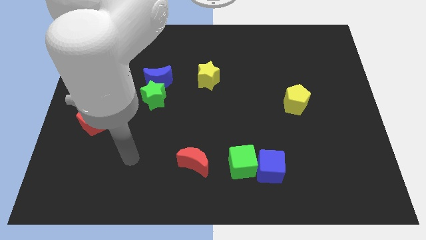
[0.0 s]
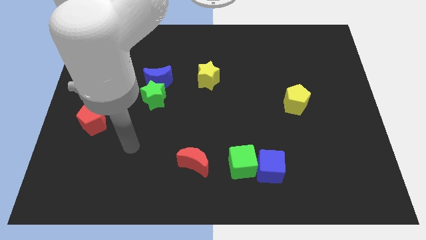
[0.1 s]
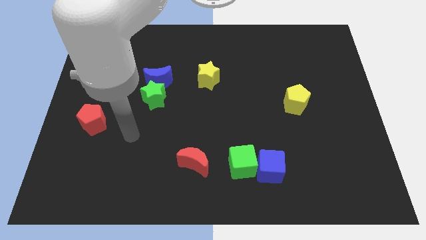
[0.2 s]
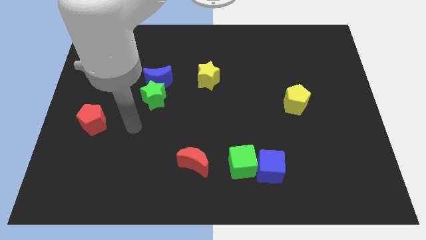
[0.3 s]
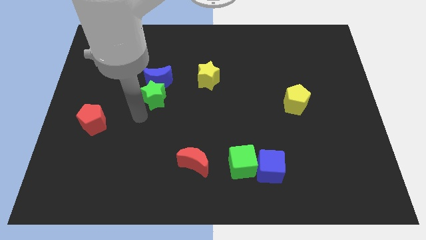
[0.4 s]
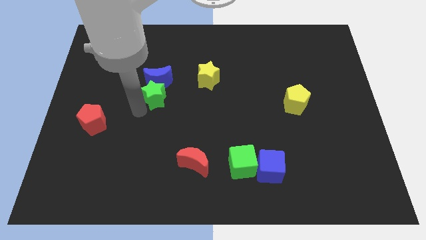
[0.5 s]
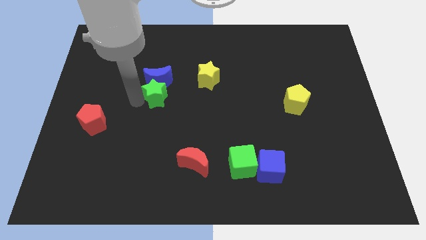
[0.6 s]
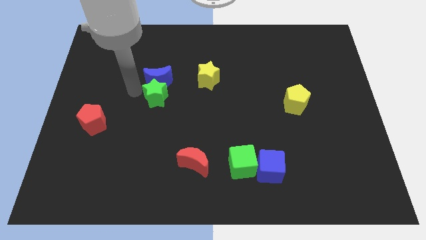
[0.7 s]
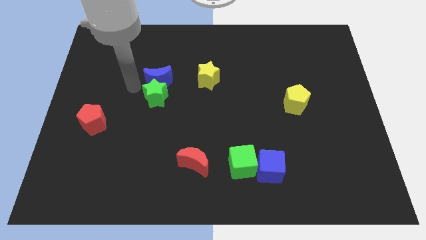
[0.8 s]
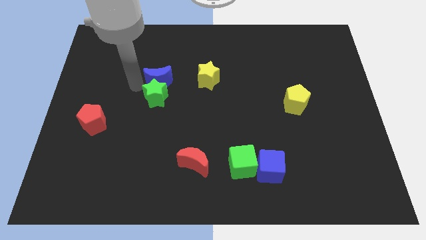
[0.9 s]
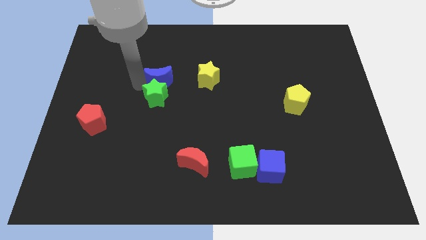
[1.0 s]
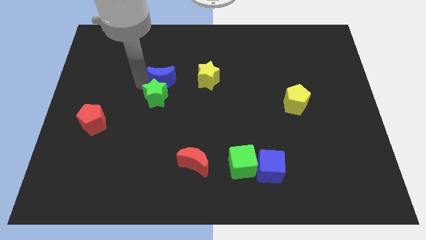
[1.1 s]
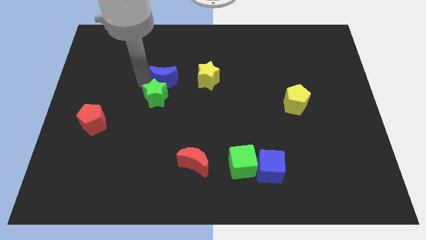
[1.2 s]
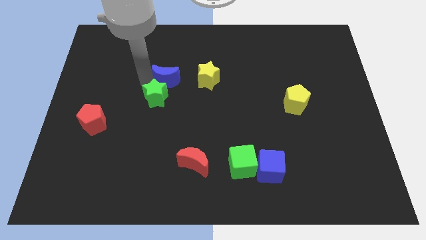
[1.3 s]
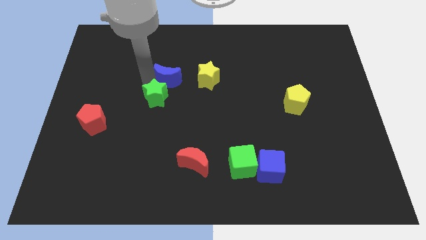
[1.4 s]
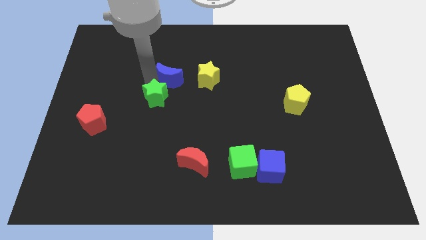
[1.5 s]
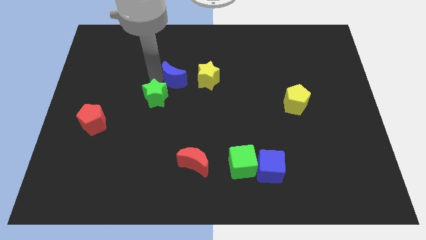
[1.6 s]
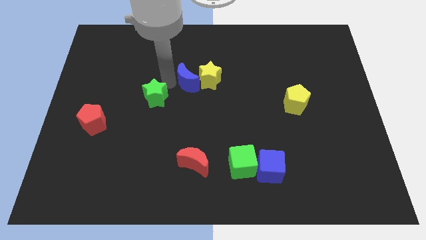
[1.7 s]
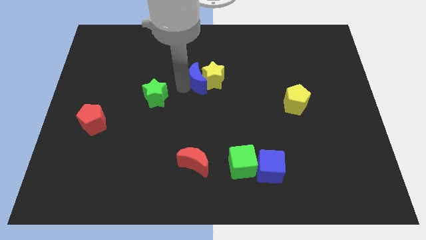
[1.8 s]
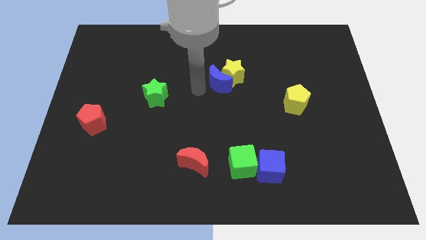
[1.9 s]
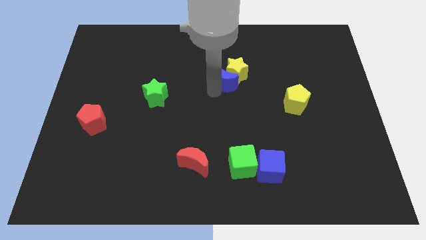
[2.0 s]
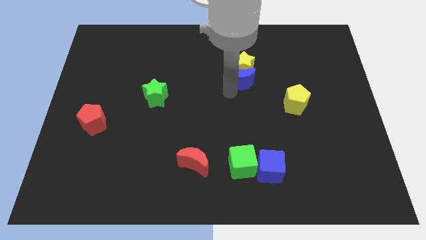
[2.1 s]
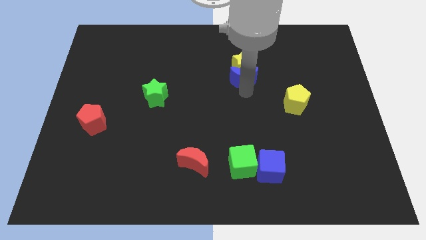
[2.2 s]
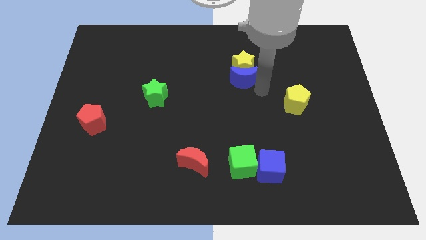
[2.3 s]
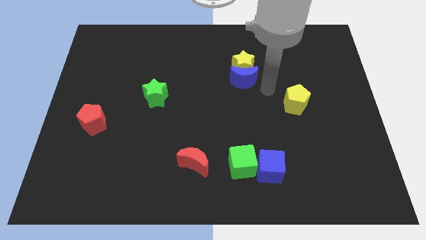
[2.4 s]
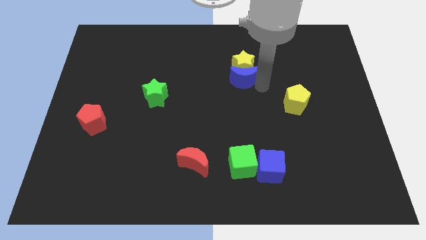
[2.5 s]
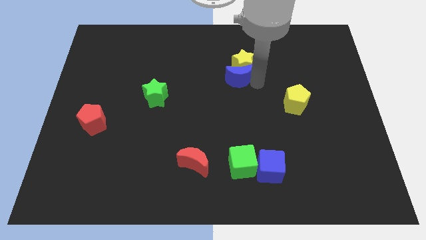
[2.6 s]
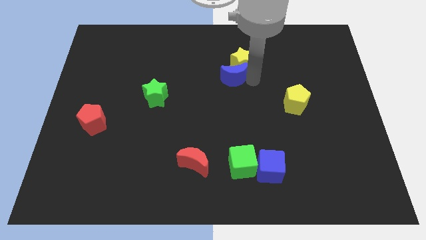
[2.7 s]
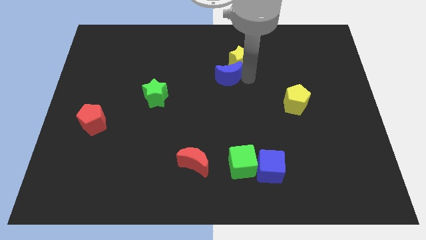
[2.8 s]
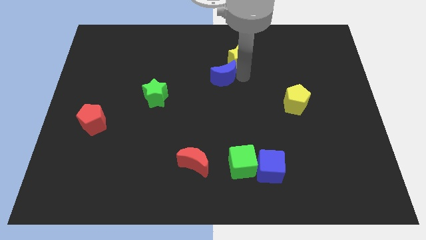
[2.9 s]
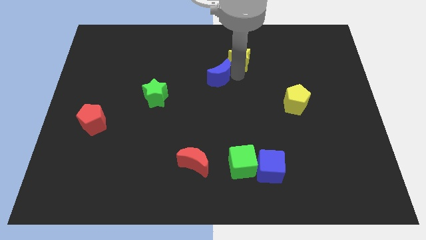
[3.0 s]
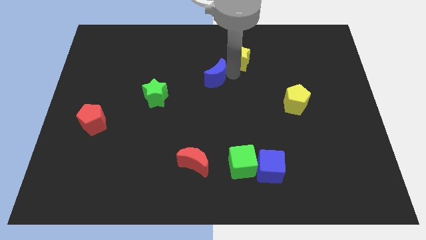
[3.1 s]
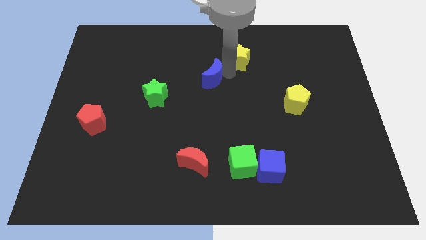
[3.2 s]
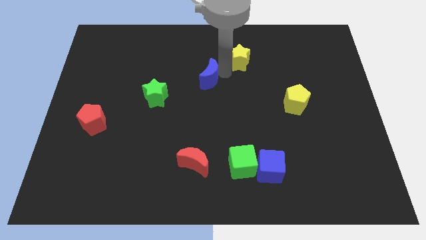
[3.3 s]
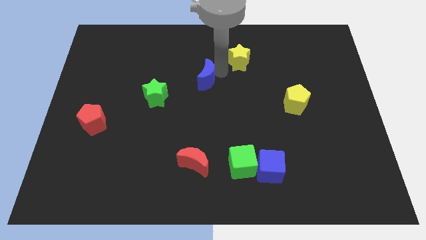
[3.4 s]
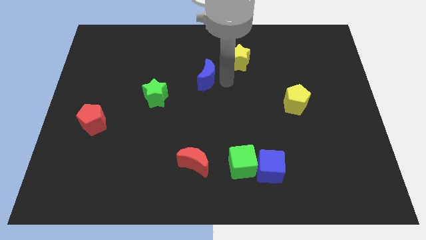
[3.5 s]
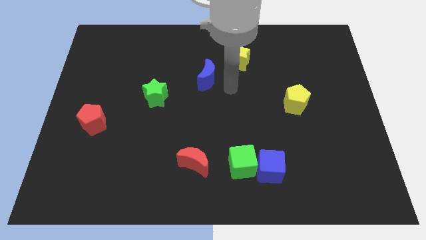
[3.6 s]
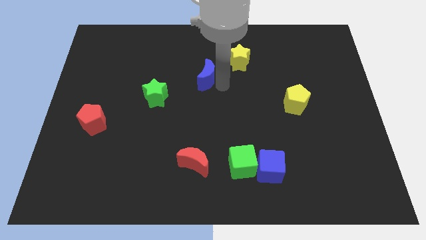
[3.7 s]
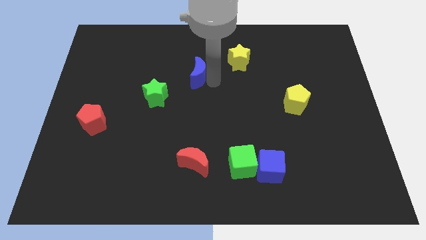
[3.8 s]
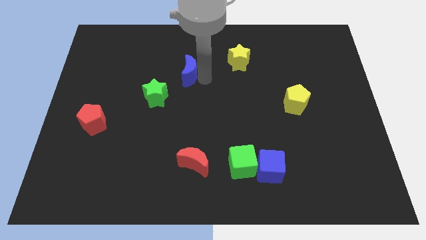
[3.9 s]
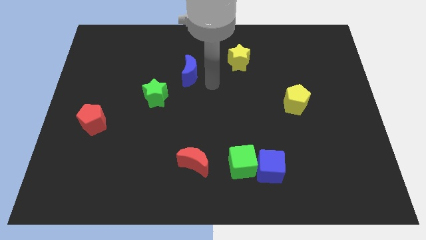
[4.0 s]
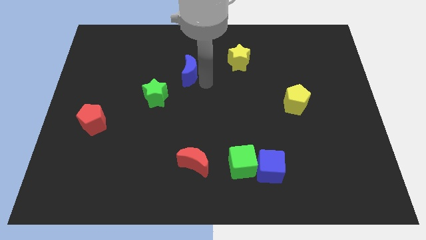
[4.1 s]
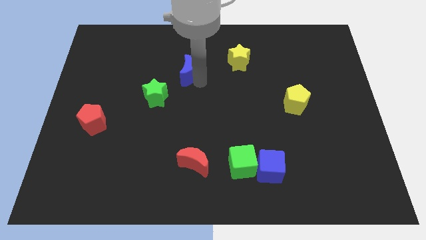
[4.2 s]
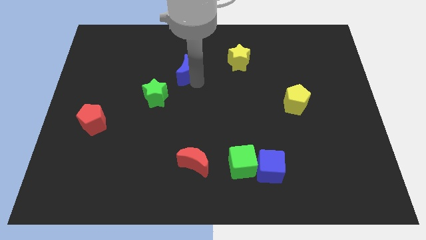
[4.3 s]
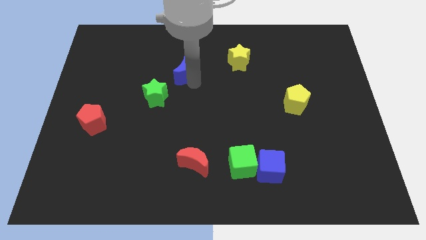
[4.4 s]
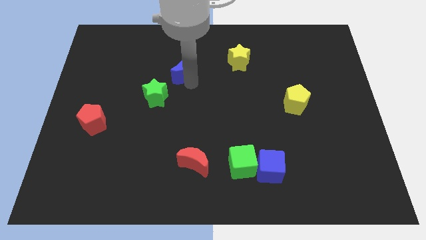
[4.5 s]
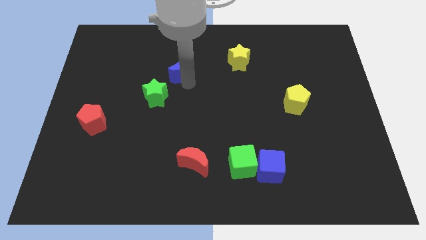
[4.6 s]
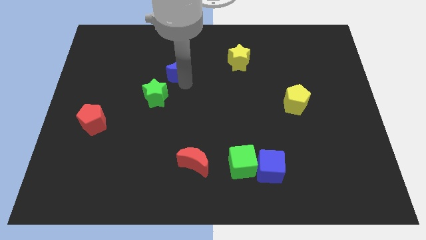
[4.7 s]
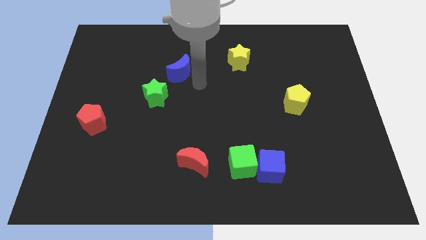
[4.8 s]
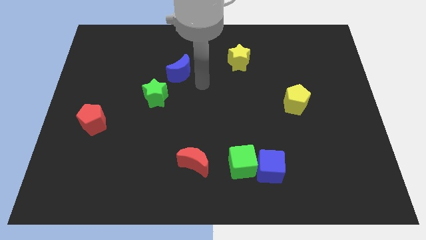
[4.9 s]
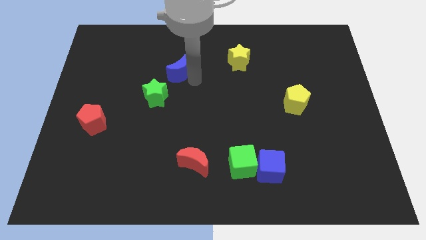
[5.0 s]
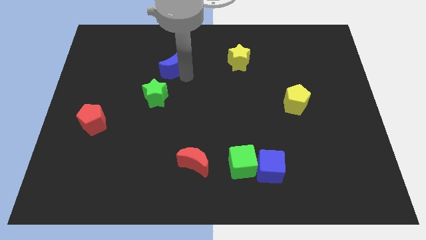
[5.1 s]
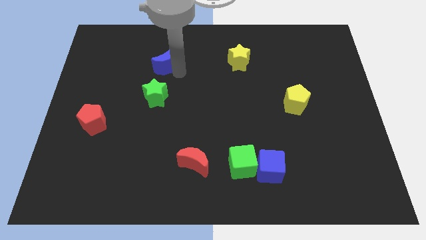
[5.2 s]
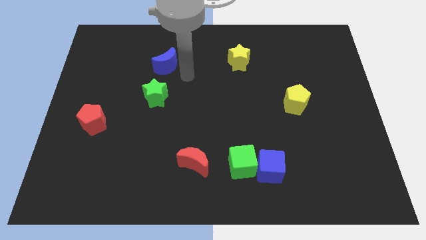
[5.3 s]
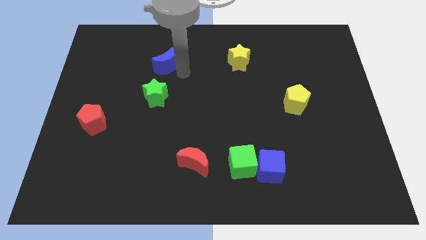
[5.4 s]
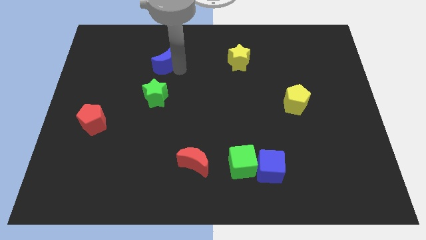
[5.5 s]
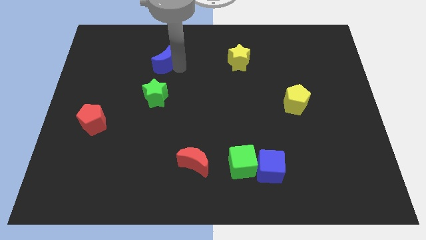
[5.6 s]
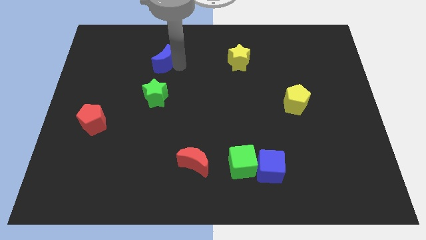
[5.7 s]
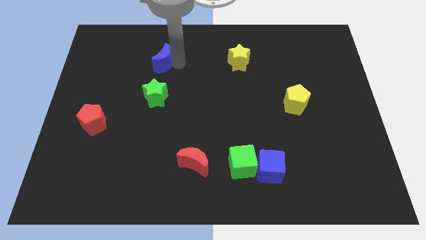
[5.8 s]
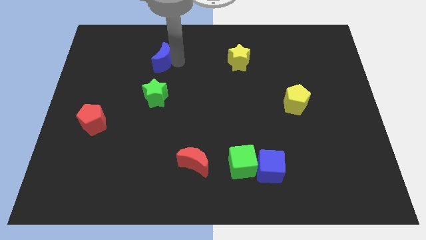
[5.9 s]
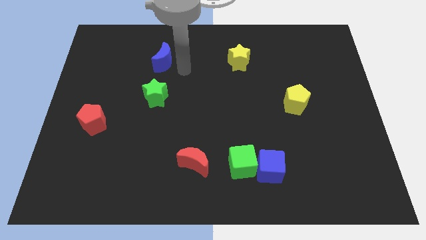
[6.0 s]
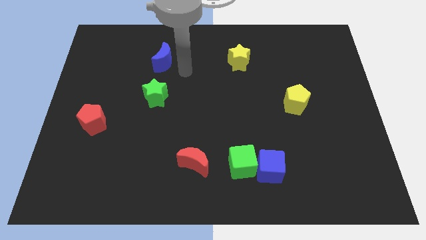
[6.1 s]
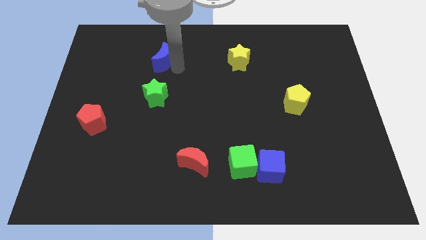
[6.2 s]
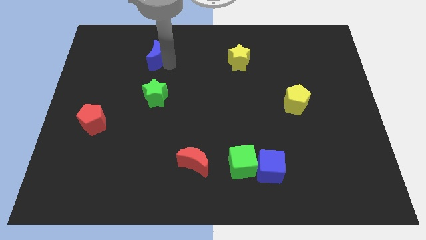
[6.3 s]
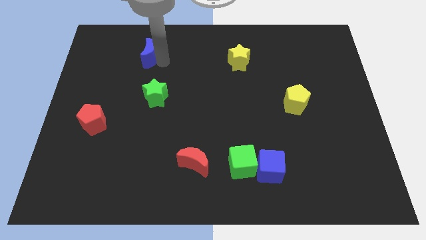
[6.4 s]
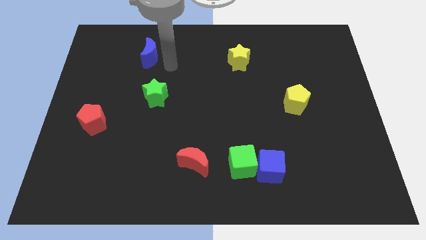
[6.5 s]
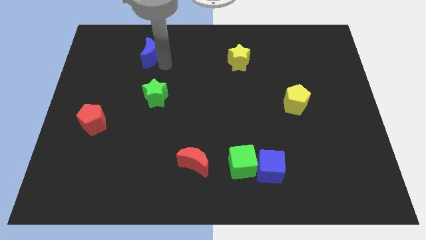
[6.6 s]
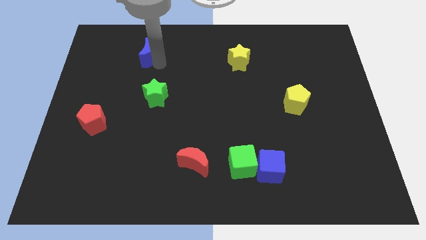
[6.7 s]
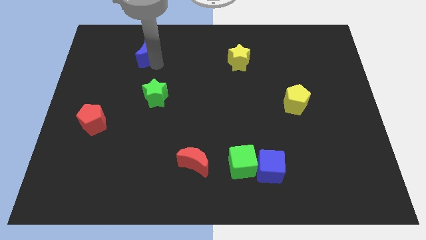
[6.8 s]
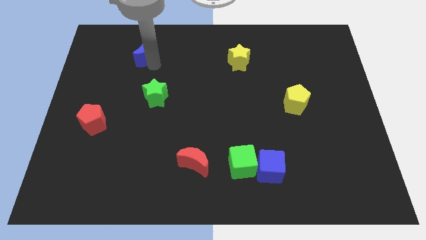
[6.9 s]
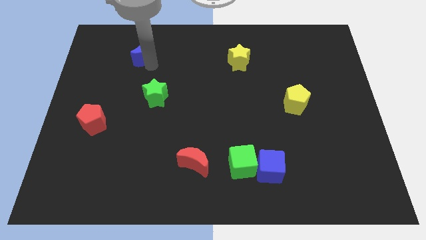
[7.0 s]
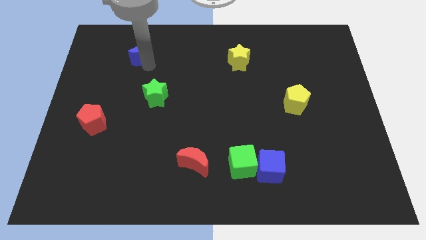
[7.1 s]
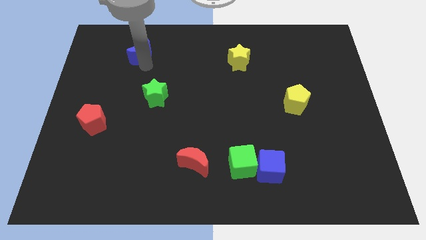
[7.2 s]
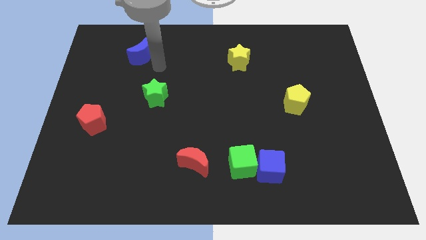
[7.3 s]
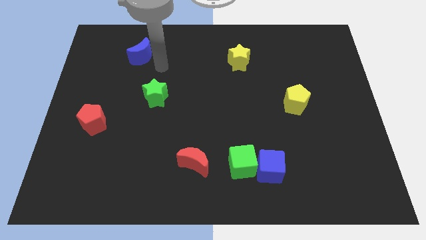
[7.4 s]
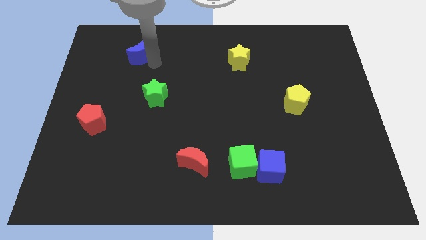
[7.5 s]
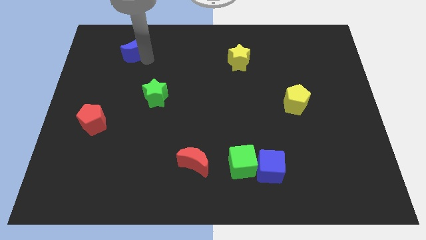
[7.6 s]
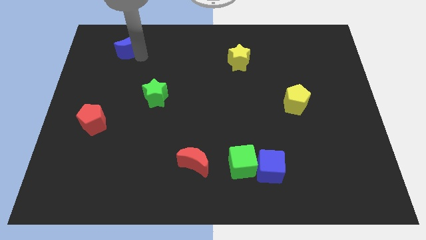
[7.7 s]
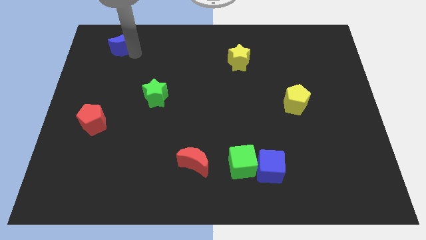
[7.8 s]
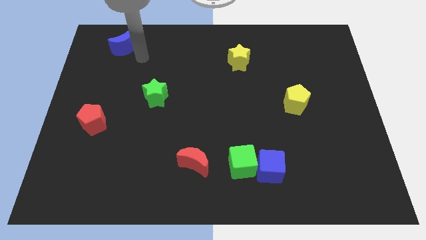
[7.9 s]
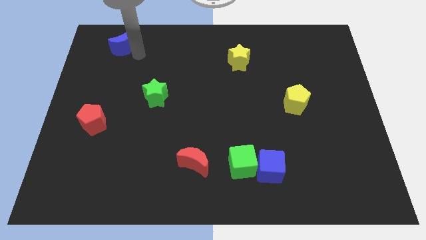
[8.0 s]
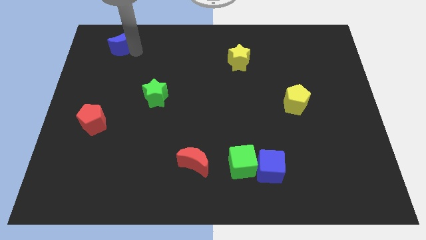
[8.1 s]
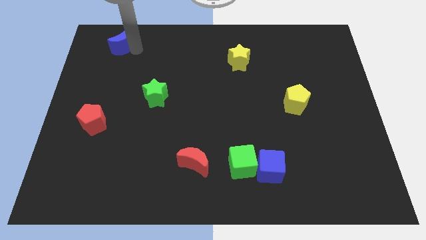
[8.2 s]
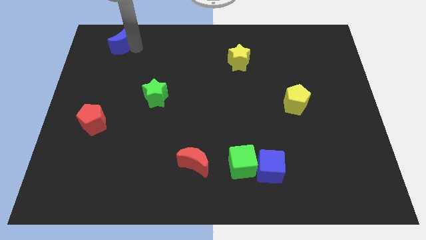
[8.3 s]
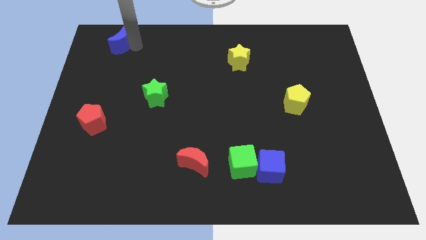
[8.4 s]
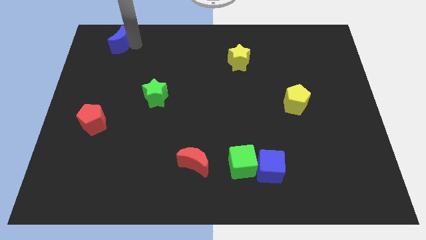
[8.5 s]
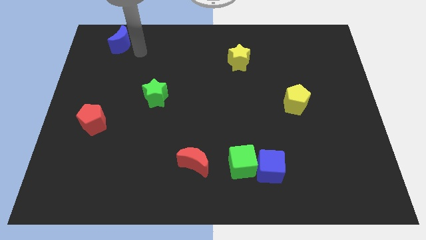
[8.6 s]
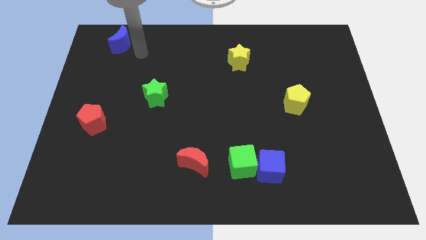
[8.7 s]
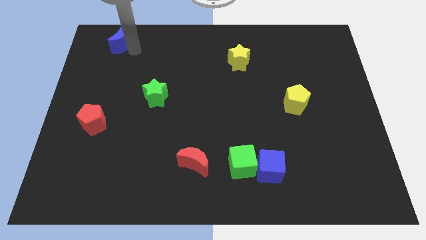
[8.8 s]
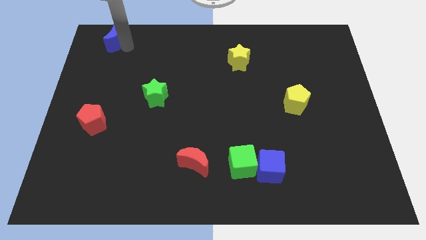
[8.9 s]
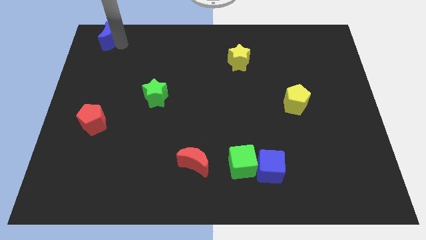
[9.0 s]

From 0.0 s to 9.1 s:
move the blue moon to the top left corner
